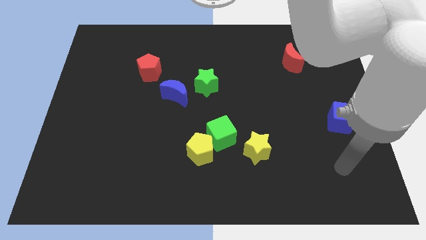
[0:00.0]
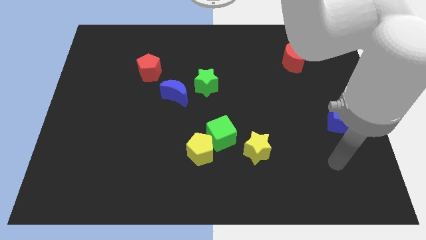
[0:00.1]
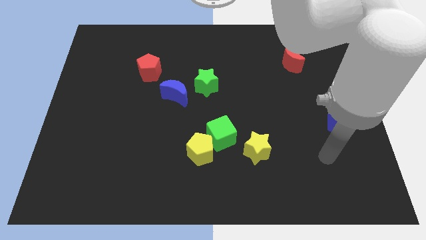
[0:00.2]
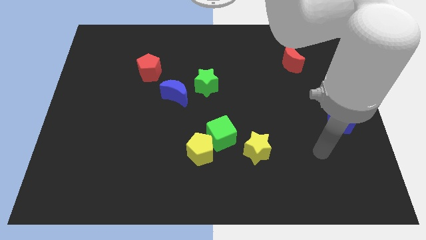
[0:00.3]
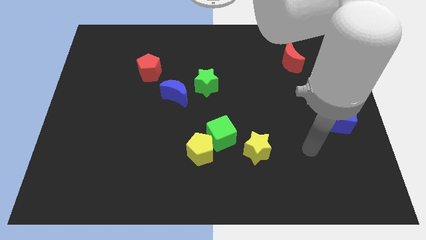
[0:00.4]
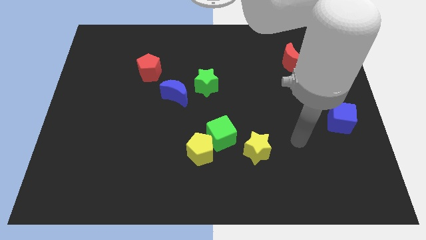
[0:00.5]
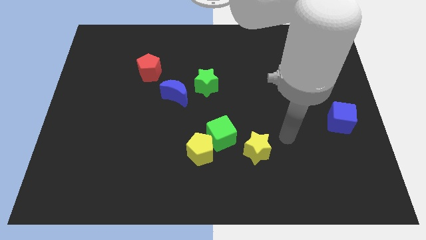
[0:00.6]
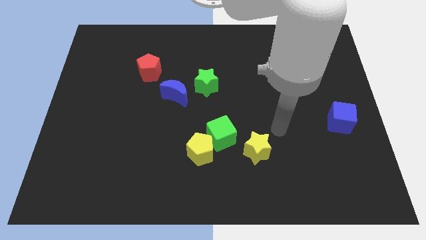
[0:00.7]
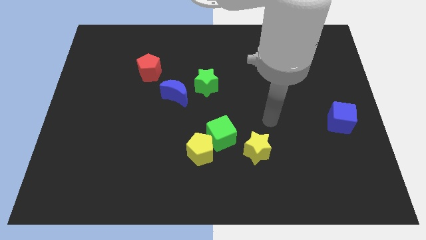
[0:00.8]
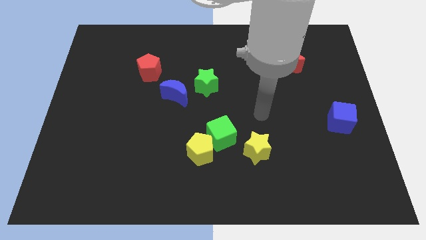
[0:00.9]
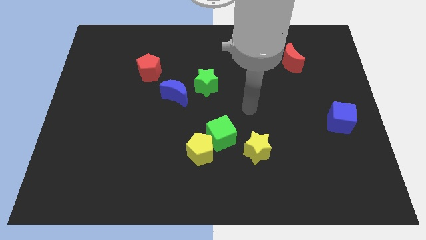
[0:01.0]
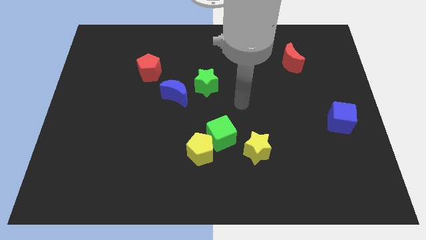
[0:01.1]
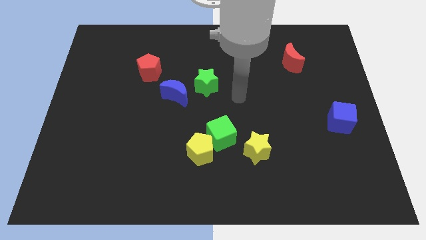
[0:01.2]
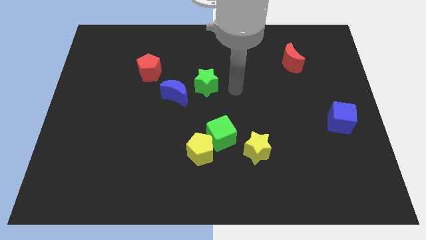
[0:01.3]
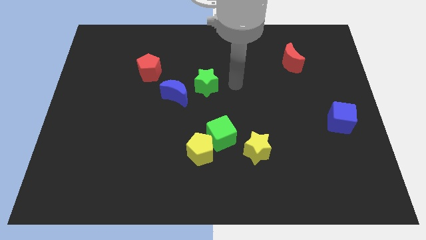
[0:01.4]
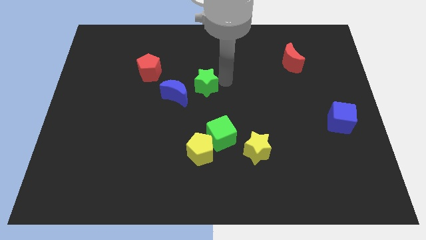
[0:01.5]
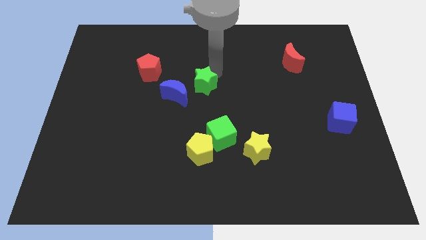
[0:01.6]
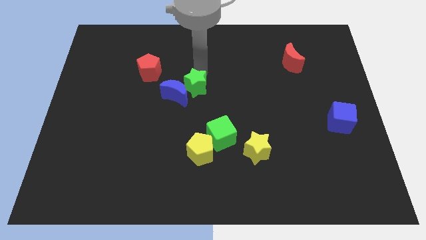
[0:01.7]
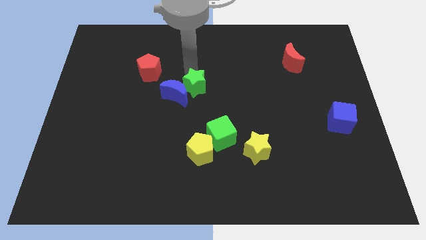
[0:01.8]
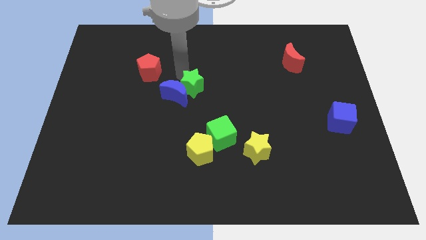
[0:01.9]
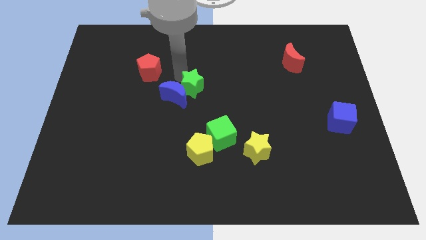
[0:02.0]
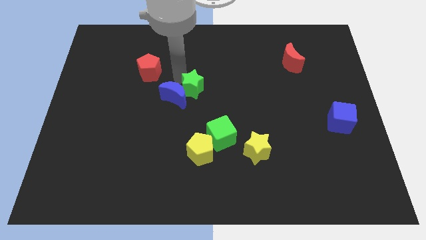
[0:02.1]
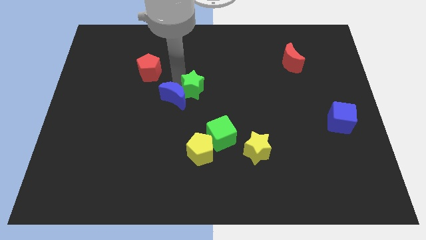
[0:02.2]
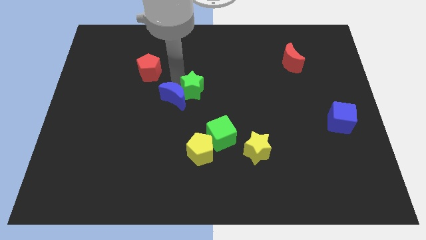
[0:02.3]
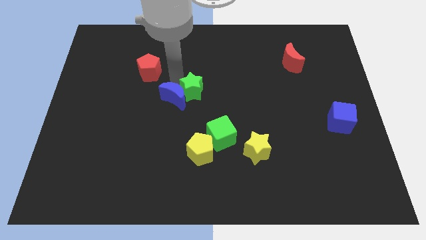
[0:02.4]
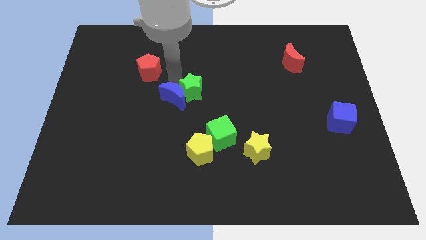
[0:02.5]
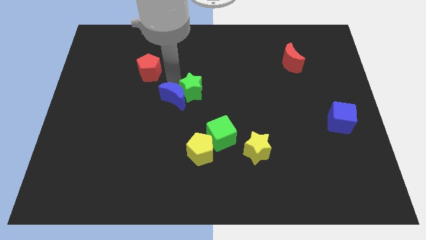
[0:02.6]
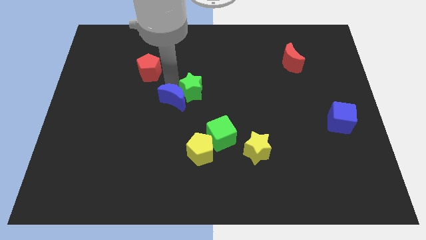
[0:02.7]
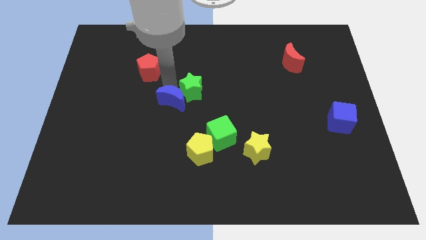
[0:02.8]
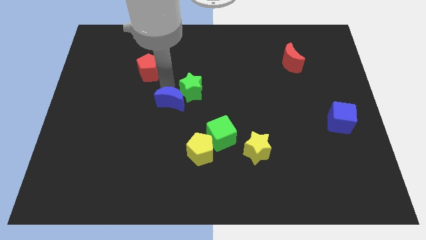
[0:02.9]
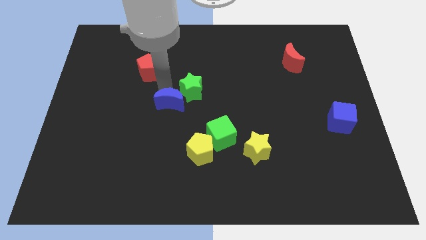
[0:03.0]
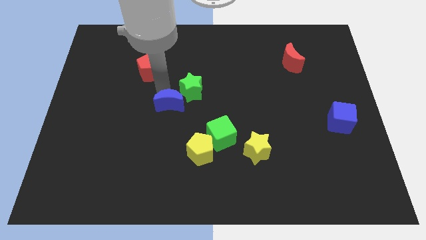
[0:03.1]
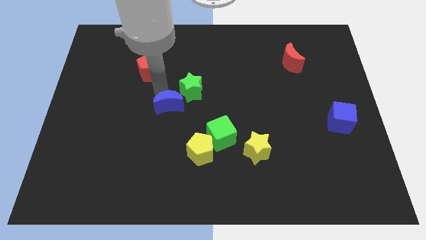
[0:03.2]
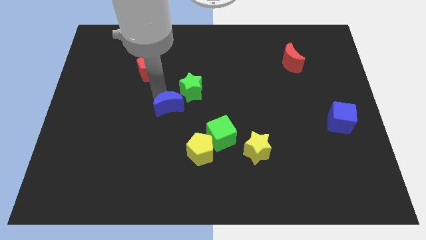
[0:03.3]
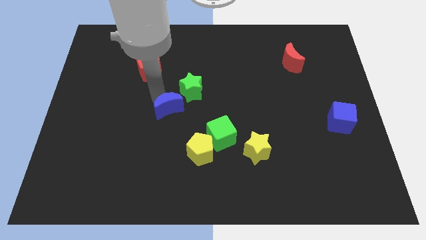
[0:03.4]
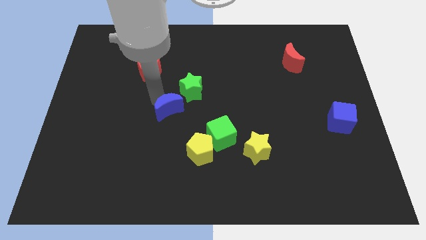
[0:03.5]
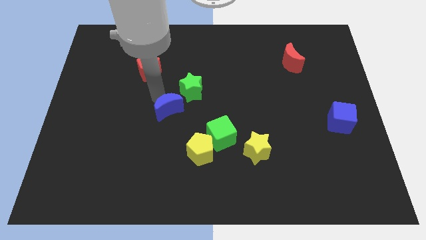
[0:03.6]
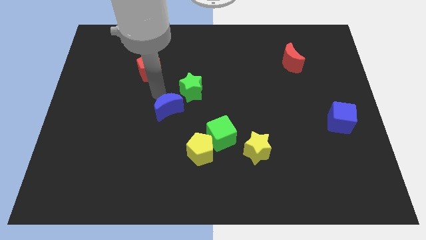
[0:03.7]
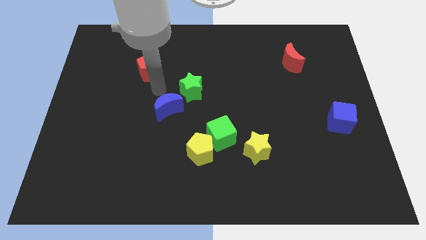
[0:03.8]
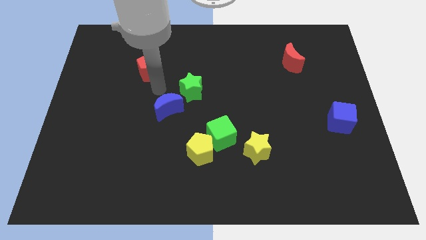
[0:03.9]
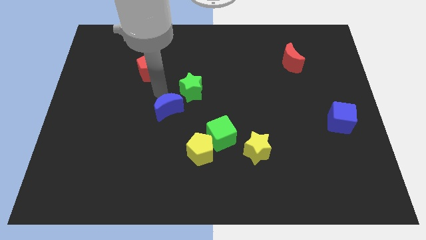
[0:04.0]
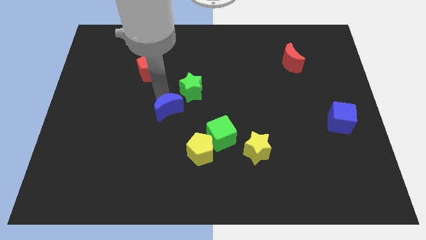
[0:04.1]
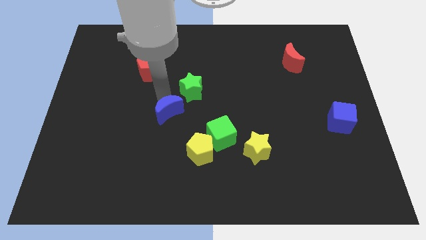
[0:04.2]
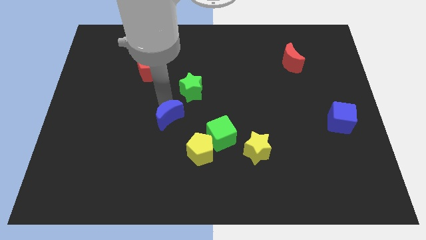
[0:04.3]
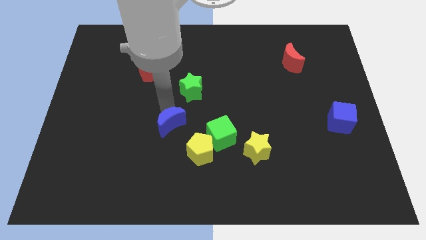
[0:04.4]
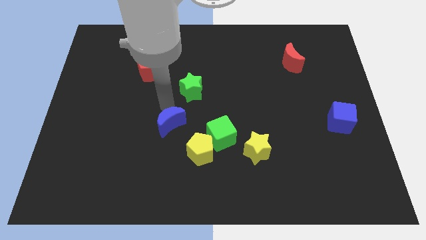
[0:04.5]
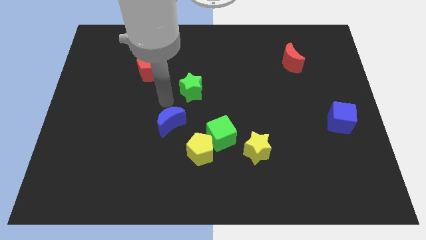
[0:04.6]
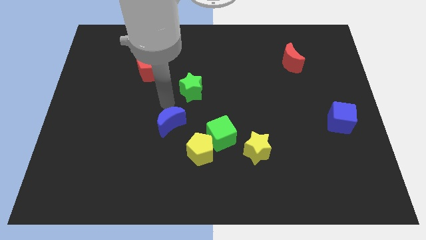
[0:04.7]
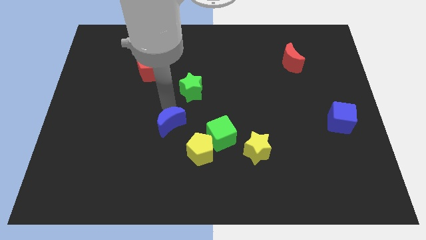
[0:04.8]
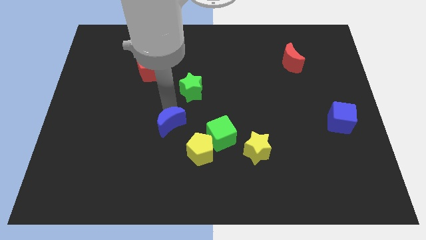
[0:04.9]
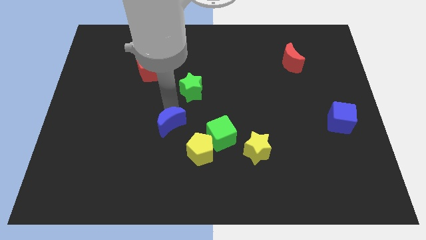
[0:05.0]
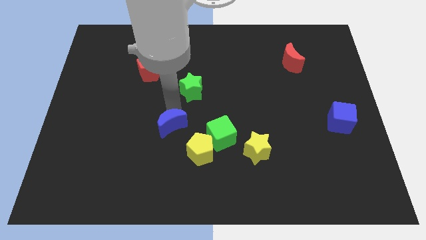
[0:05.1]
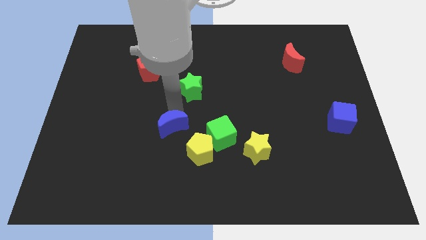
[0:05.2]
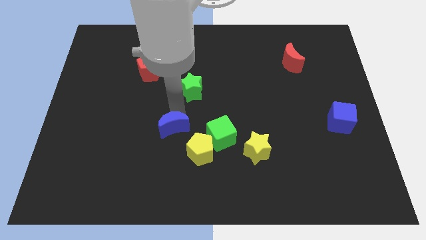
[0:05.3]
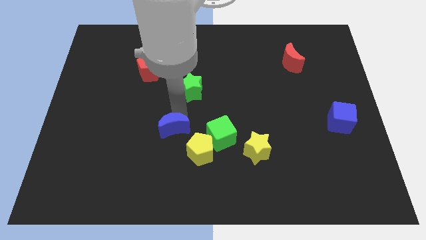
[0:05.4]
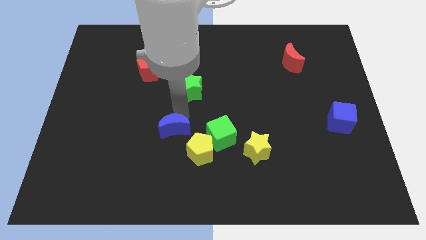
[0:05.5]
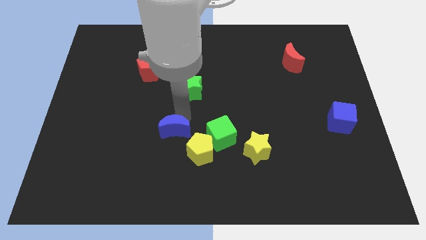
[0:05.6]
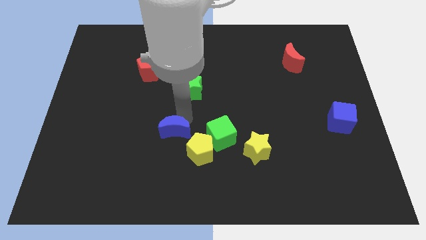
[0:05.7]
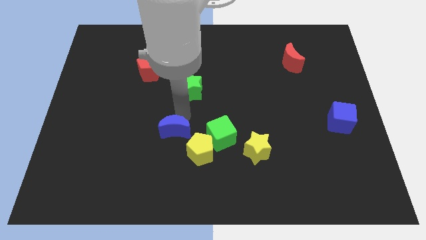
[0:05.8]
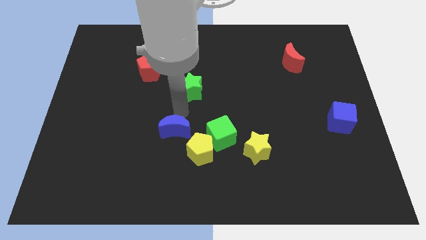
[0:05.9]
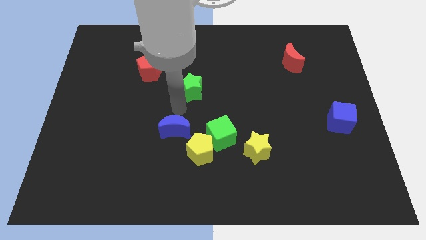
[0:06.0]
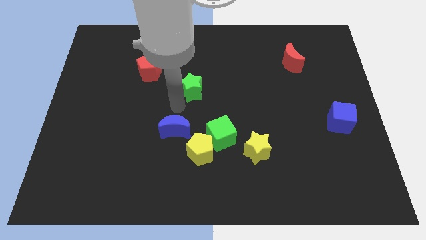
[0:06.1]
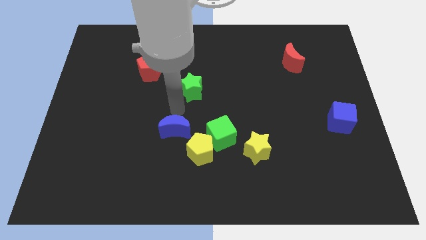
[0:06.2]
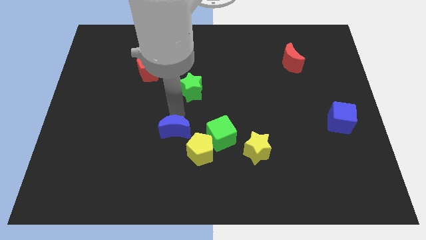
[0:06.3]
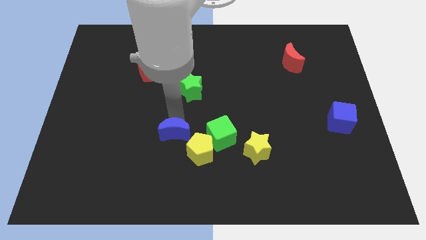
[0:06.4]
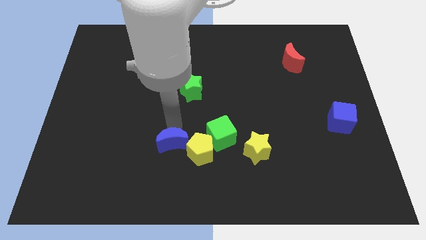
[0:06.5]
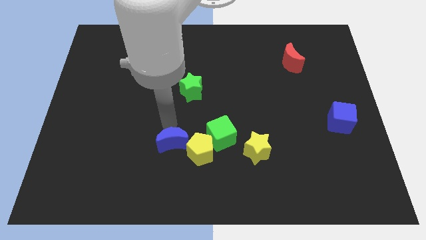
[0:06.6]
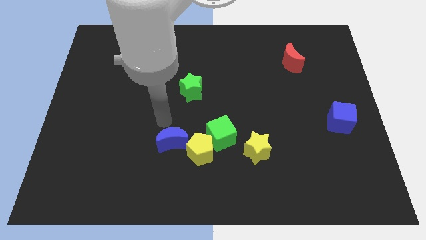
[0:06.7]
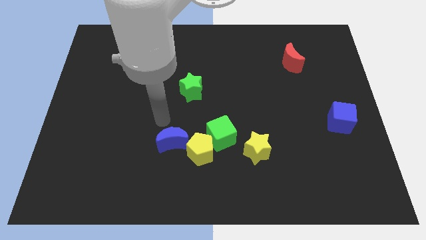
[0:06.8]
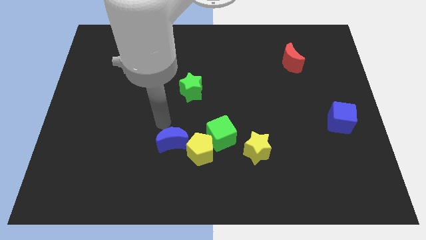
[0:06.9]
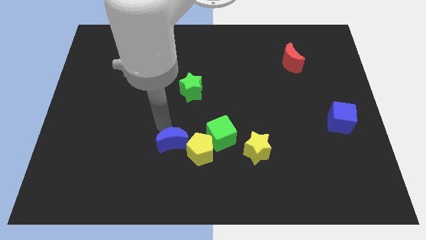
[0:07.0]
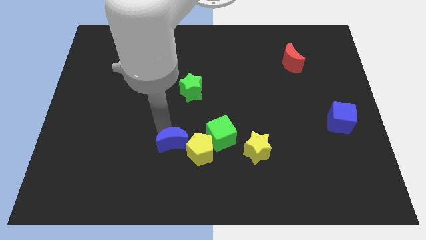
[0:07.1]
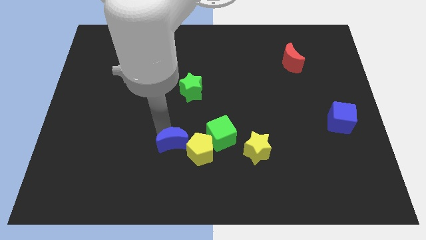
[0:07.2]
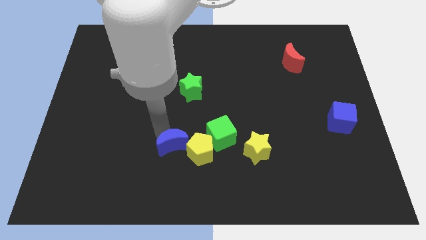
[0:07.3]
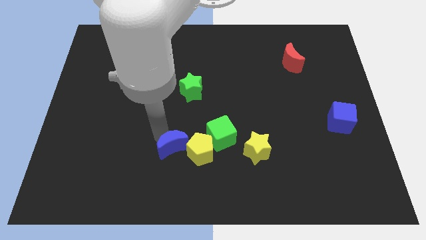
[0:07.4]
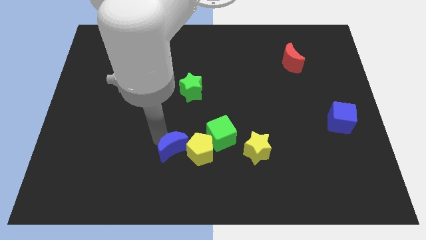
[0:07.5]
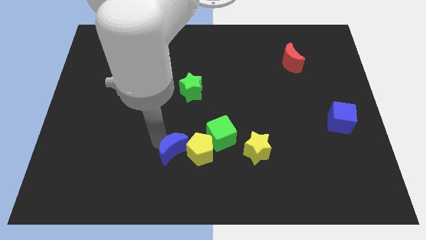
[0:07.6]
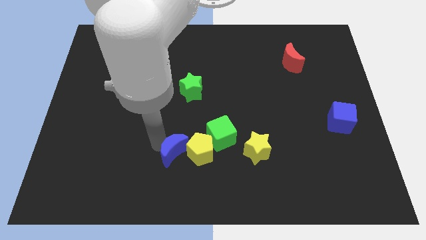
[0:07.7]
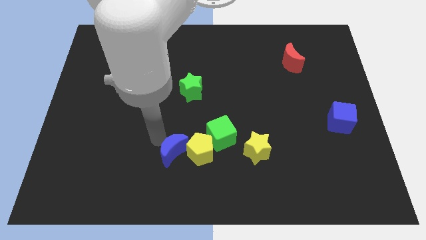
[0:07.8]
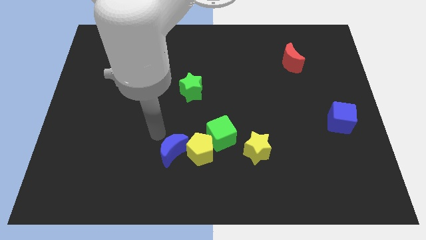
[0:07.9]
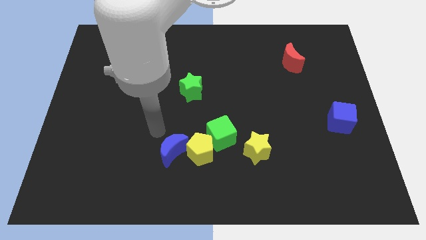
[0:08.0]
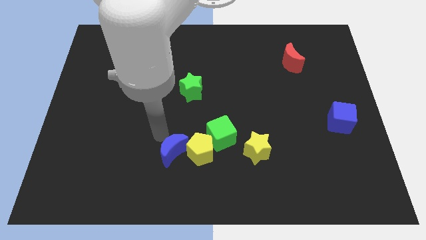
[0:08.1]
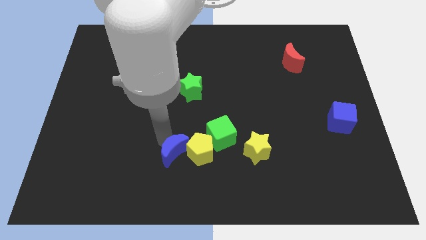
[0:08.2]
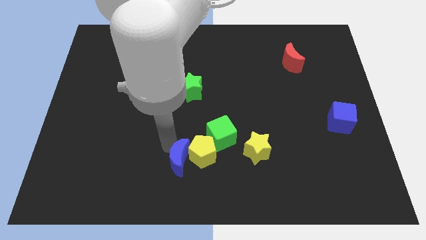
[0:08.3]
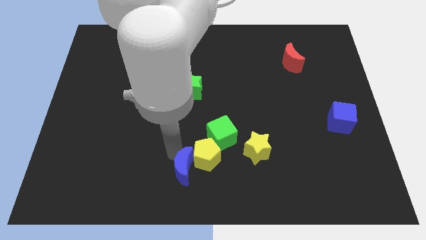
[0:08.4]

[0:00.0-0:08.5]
put the blue moon to the bottom
